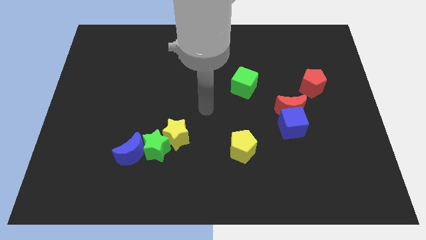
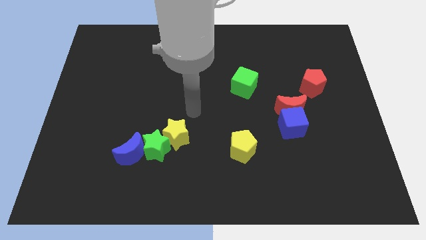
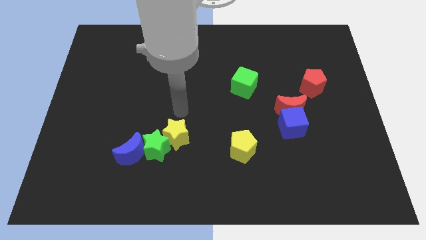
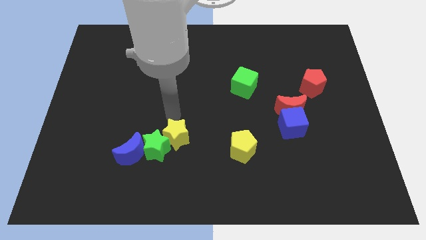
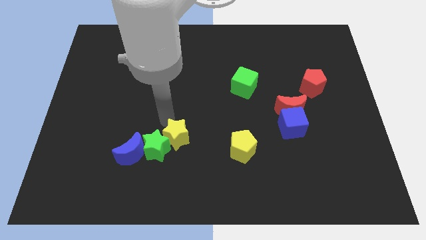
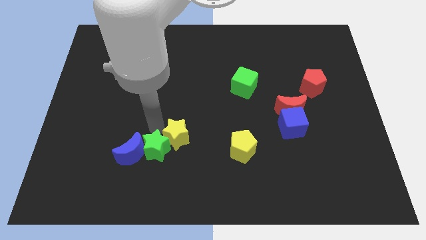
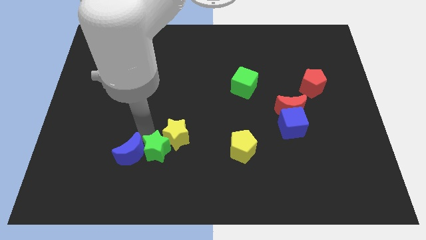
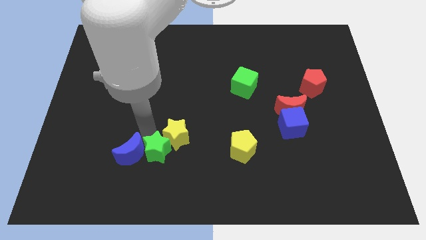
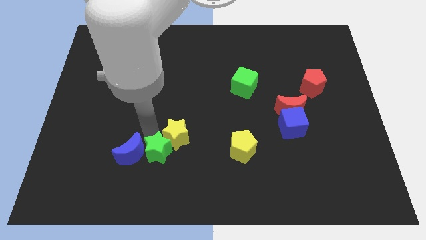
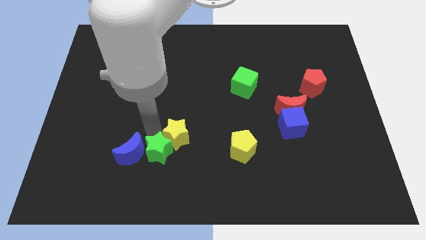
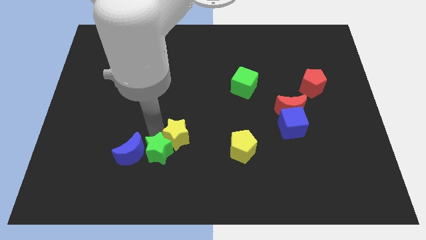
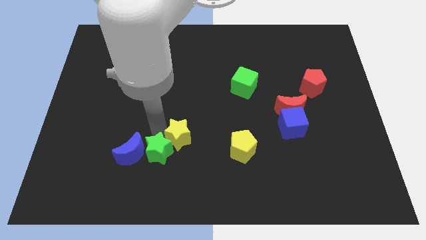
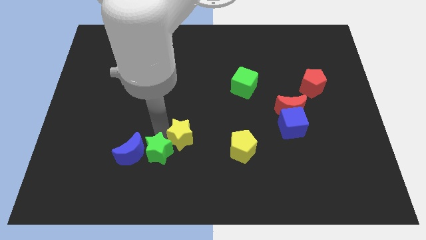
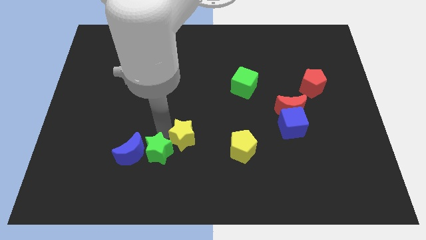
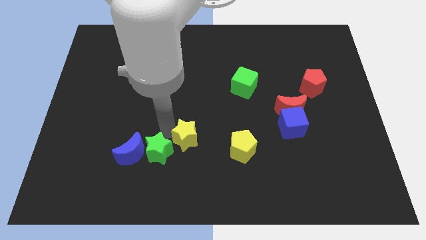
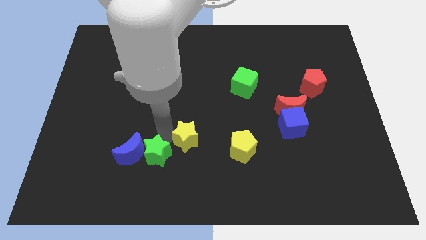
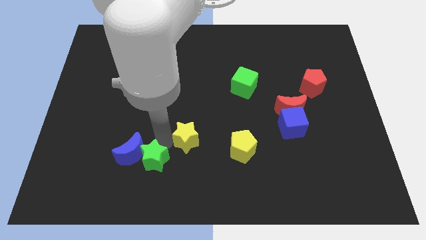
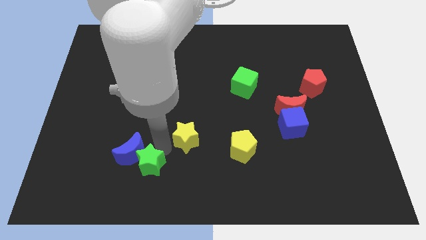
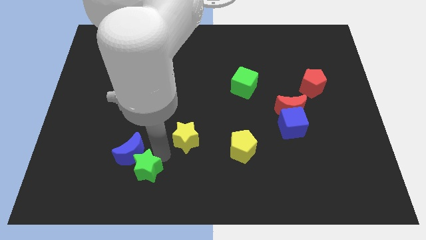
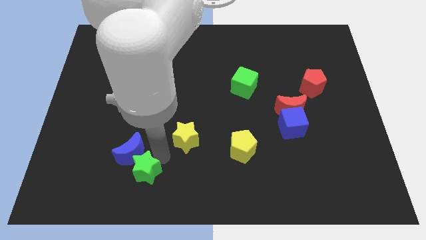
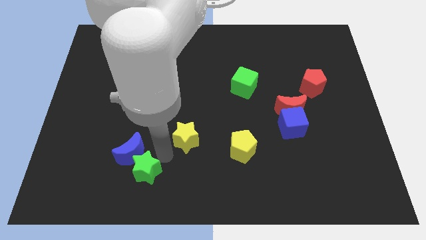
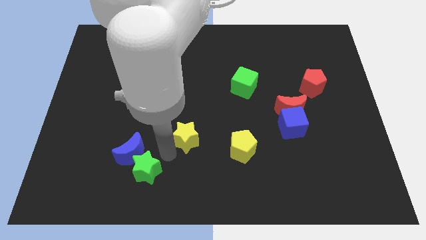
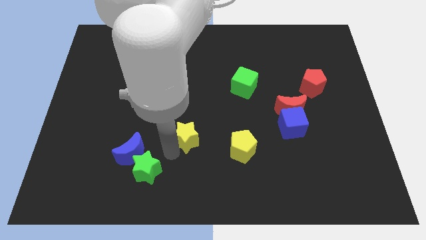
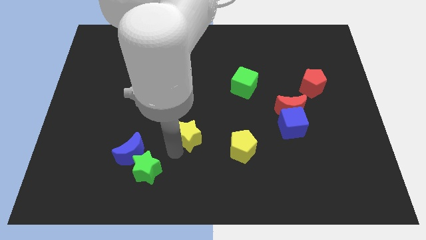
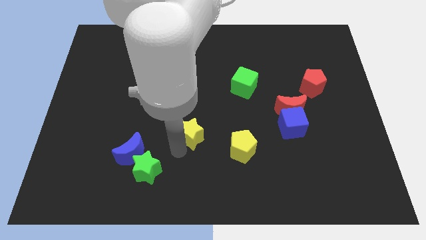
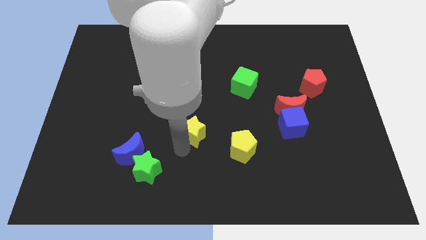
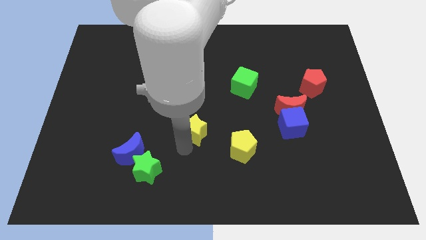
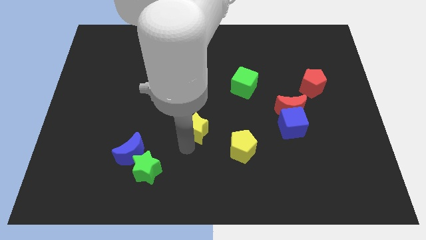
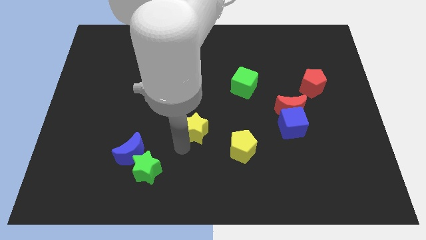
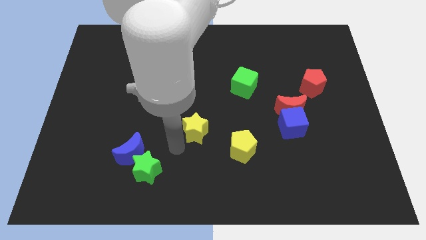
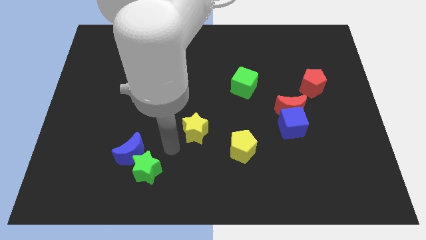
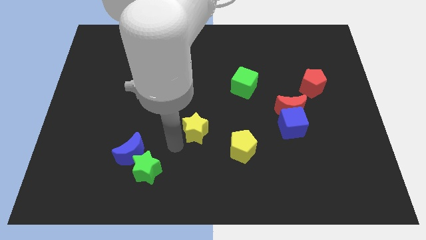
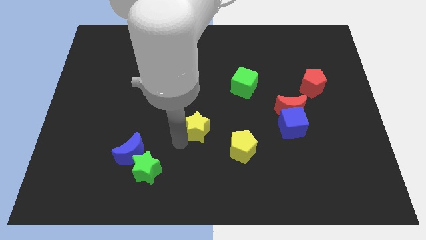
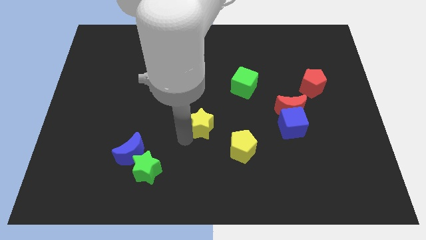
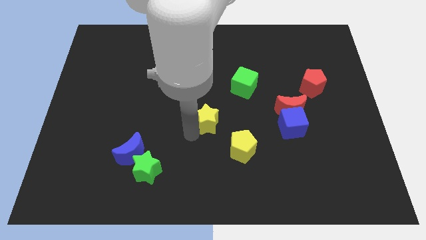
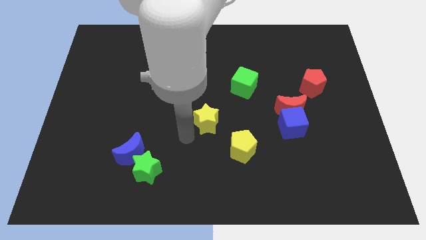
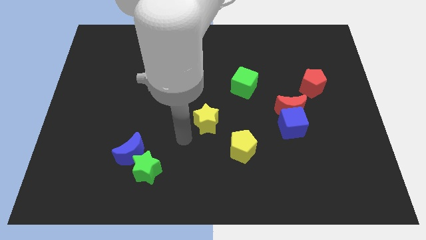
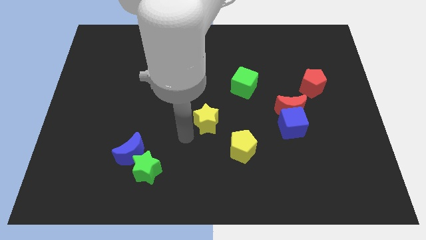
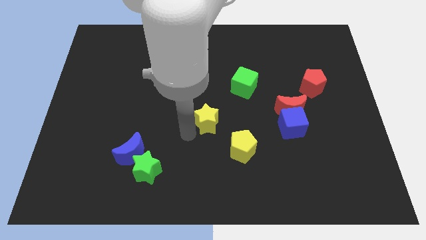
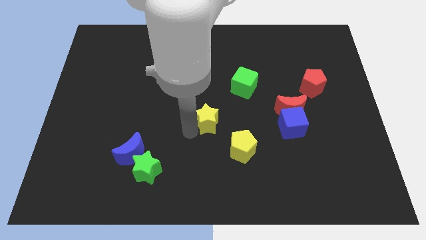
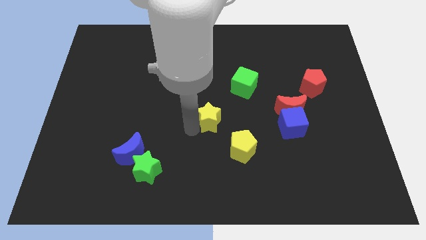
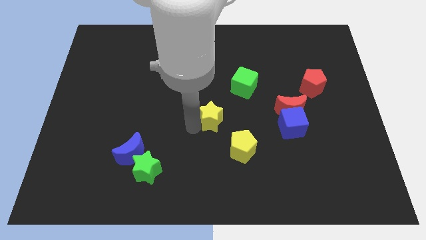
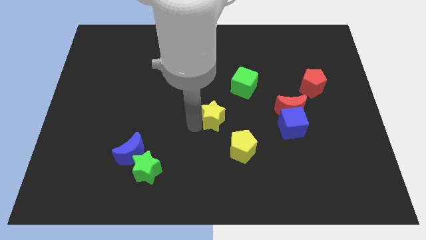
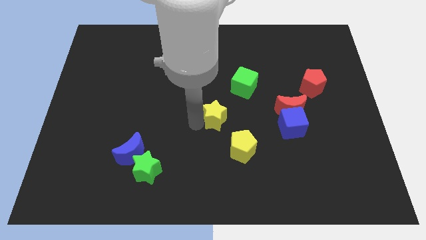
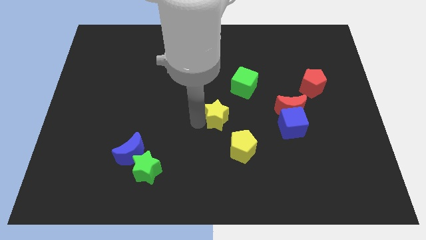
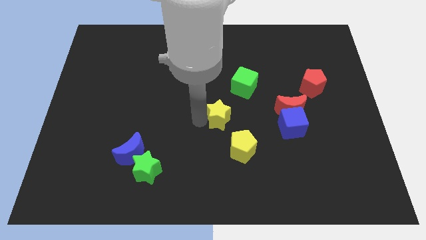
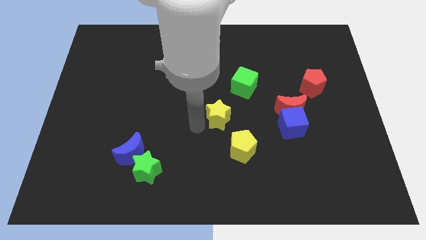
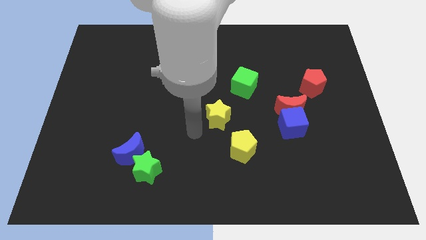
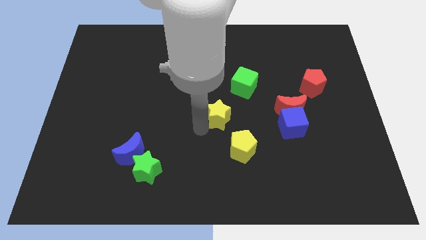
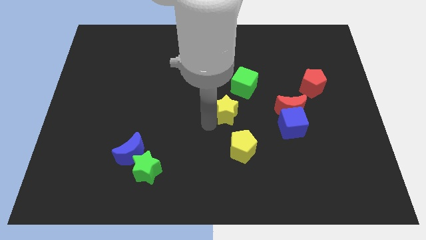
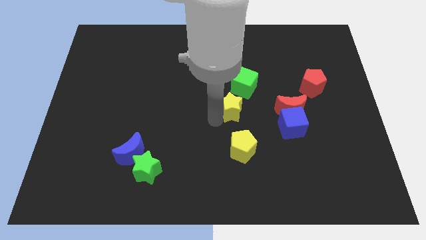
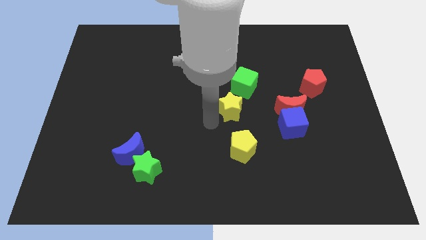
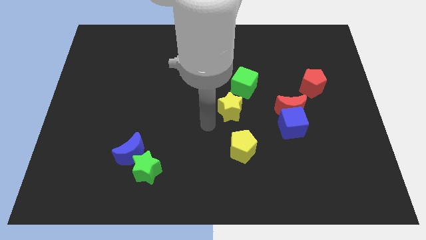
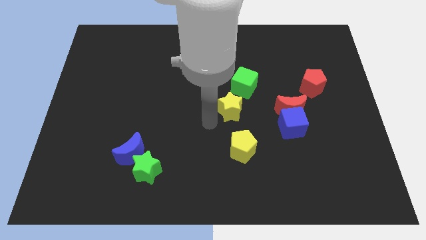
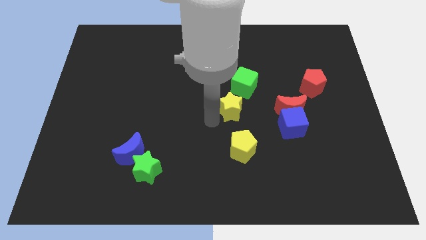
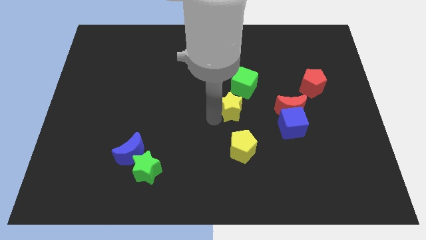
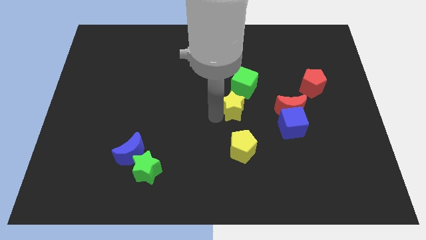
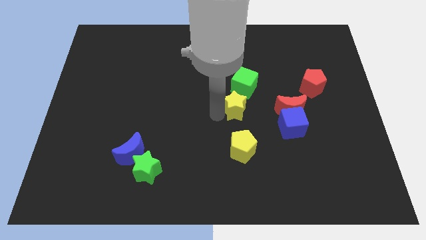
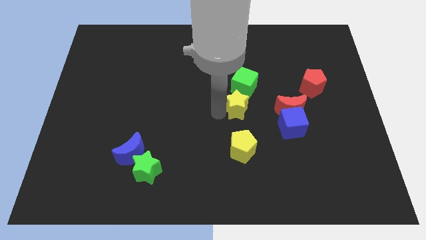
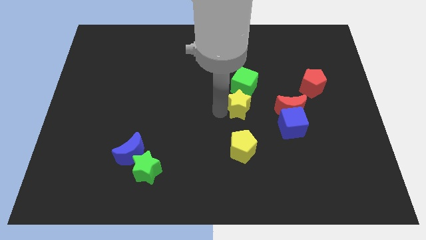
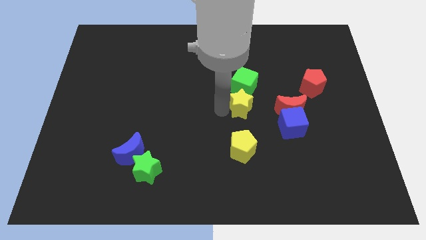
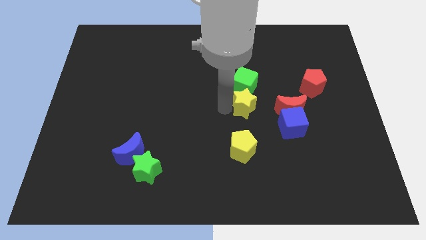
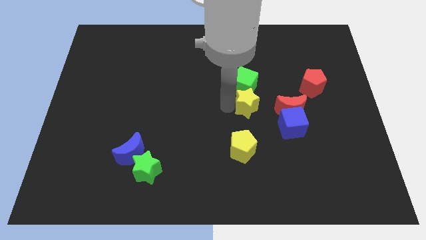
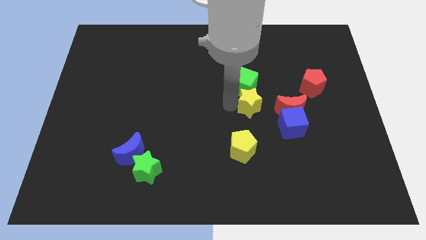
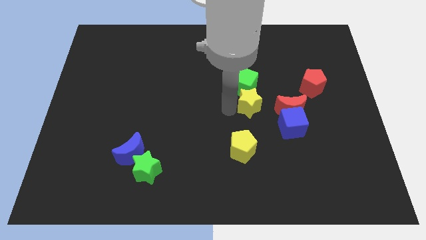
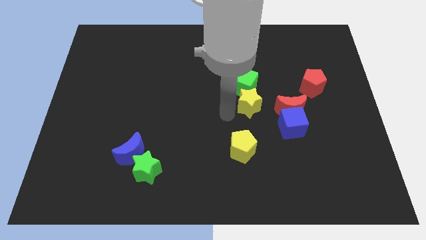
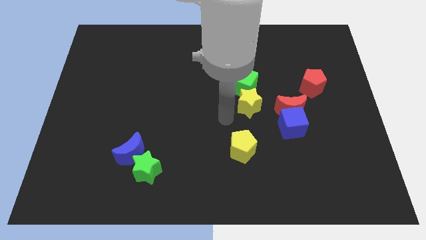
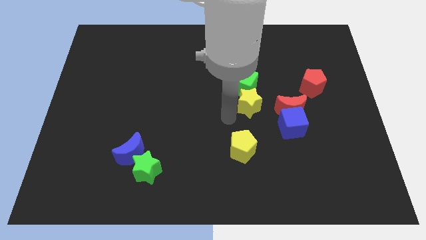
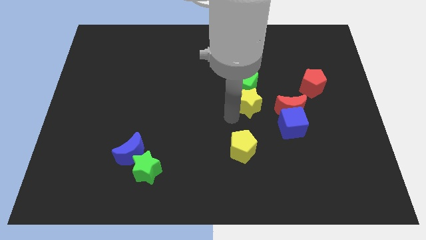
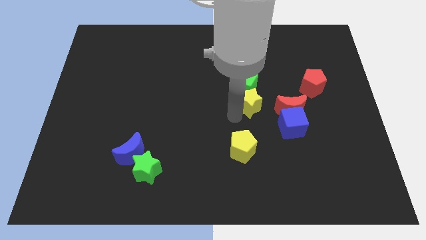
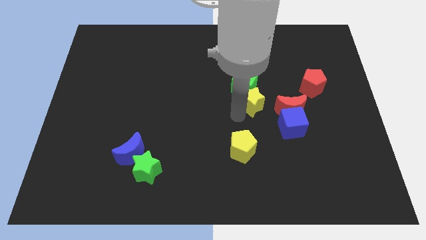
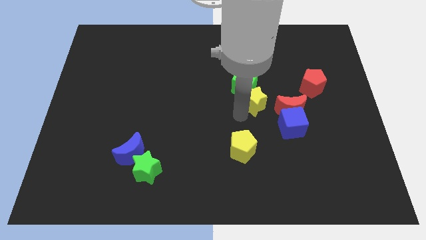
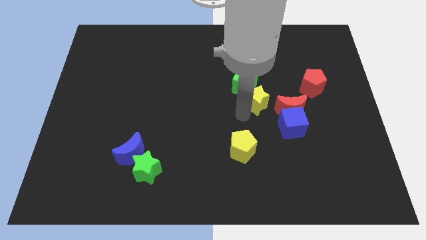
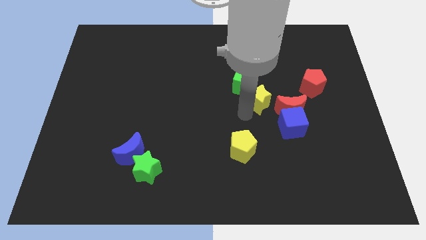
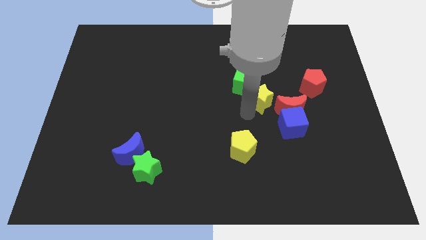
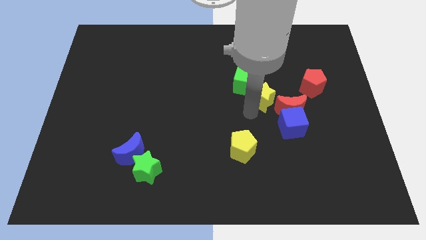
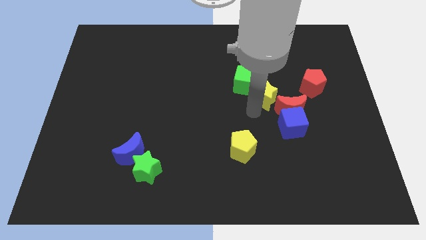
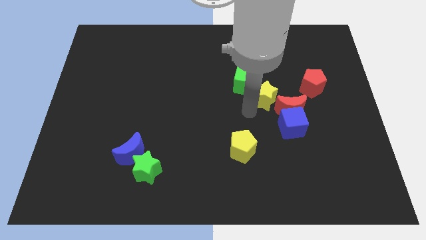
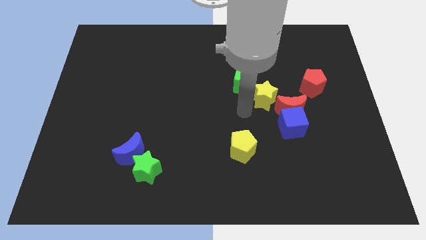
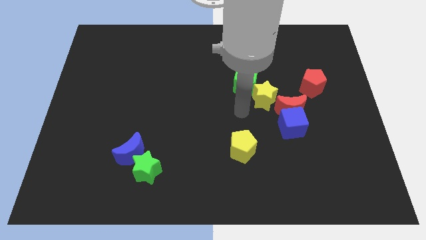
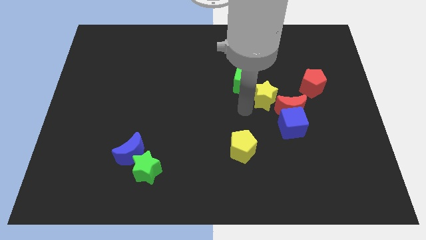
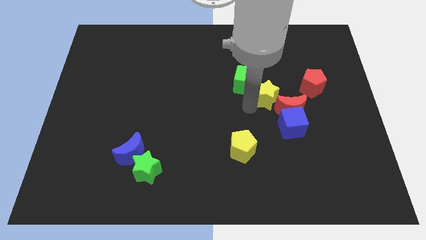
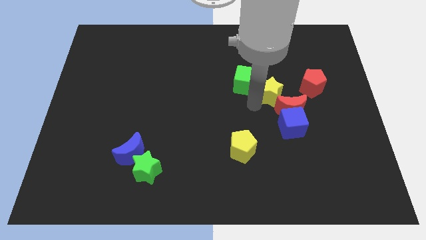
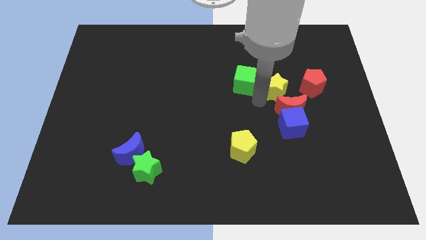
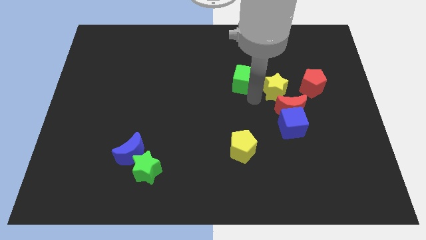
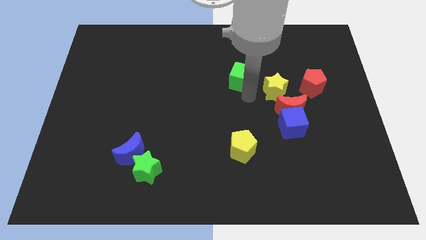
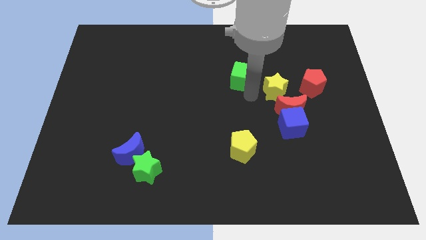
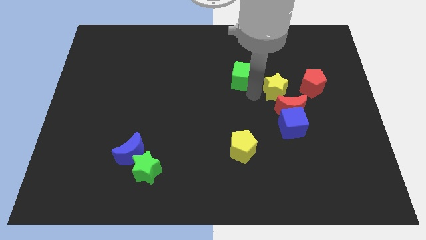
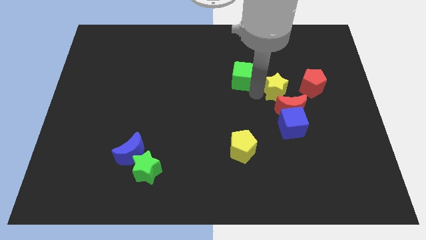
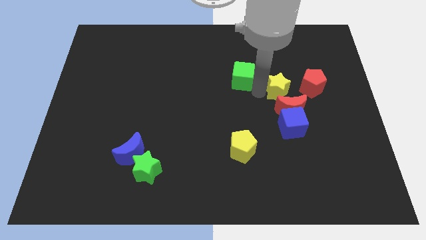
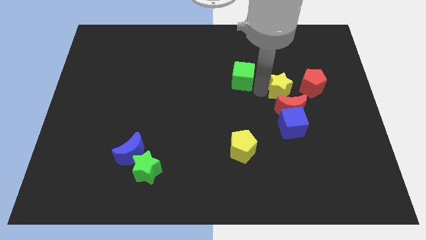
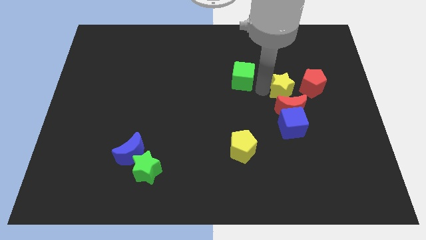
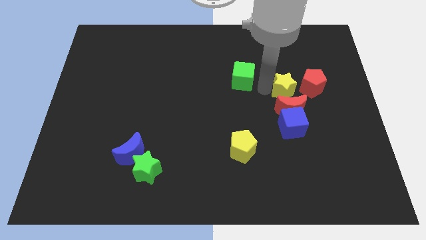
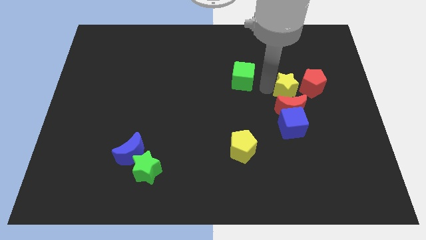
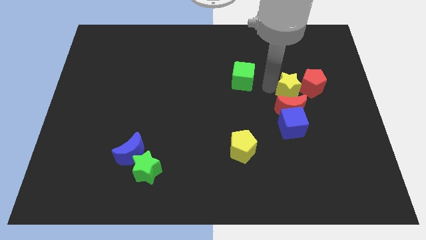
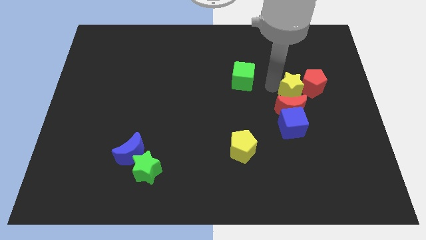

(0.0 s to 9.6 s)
slide the yellow star to the red pentagon
